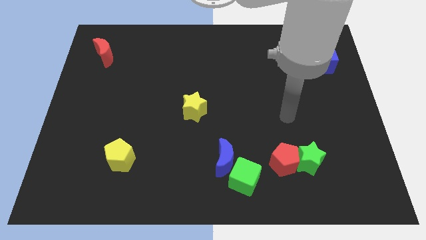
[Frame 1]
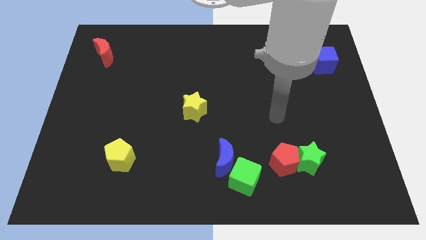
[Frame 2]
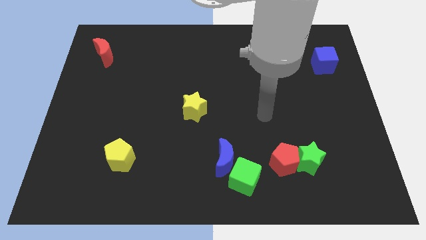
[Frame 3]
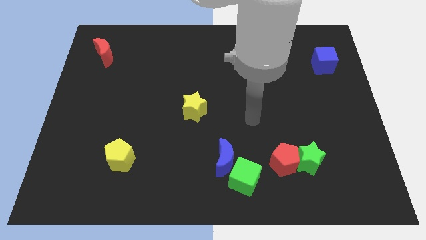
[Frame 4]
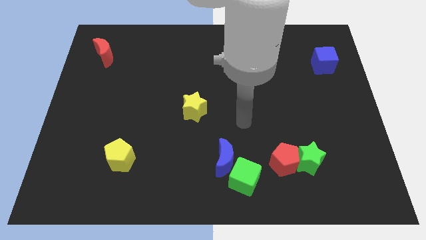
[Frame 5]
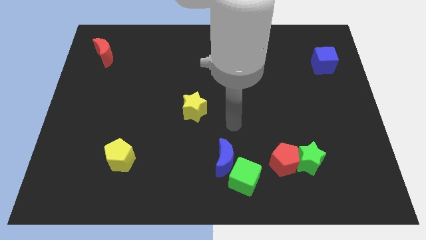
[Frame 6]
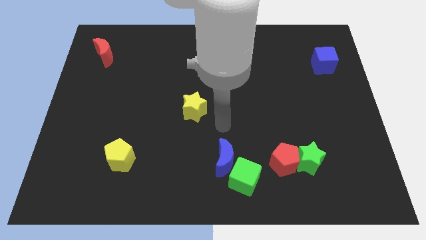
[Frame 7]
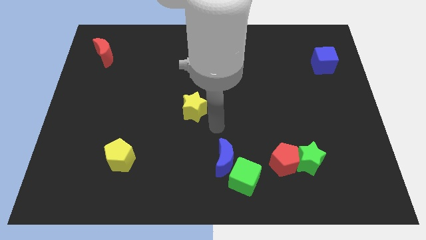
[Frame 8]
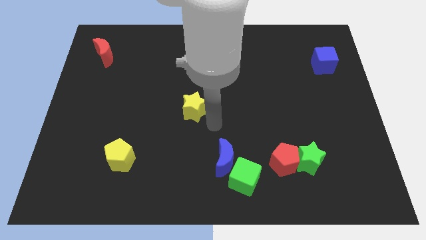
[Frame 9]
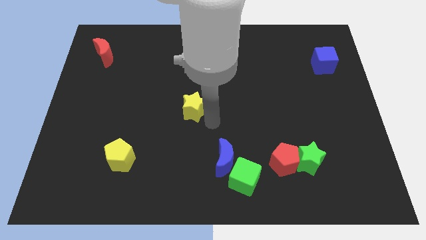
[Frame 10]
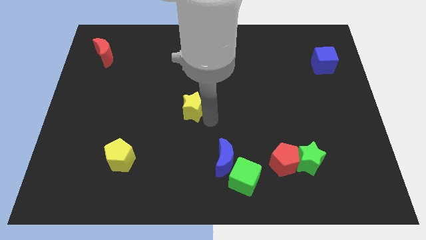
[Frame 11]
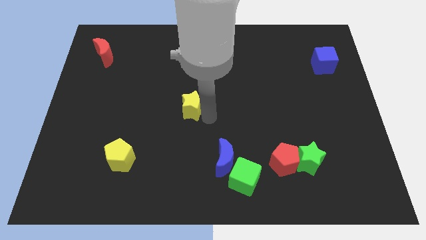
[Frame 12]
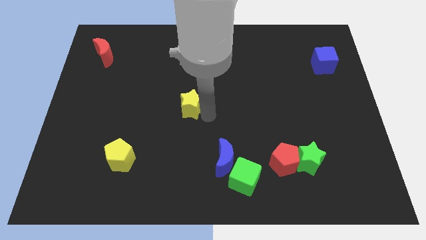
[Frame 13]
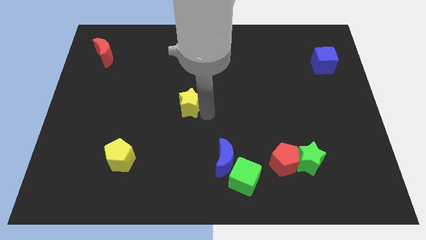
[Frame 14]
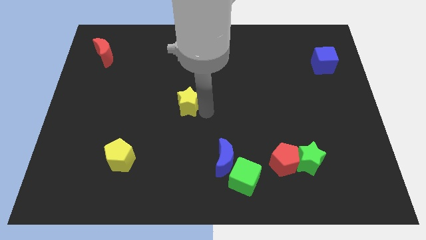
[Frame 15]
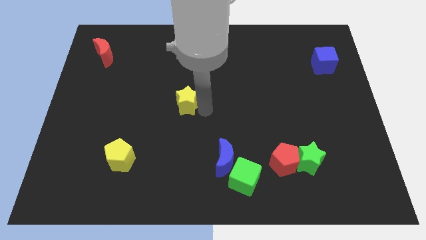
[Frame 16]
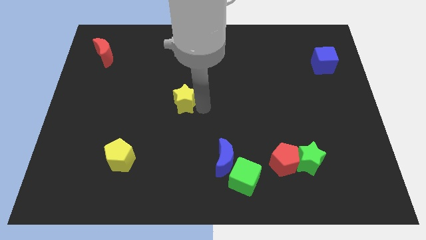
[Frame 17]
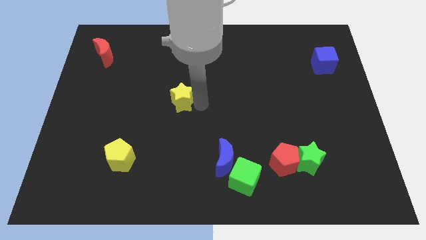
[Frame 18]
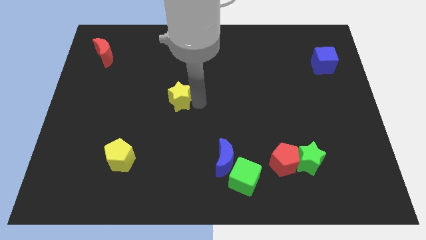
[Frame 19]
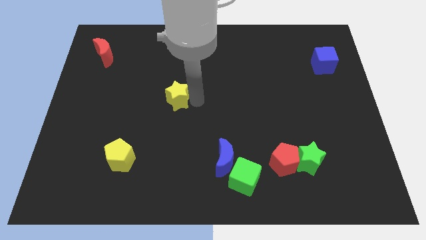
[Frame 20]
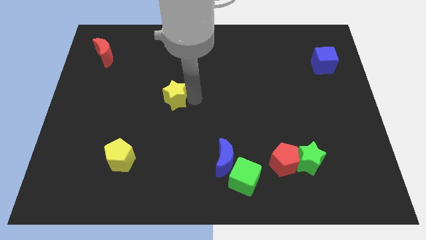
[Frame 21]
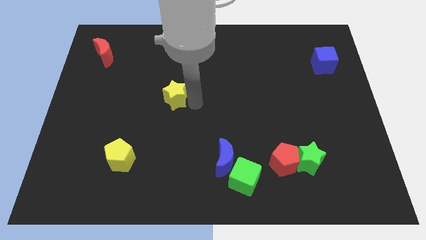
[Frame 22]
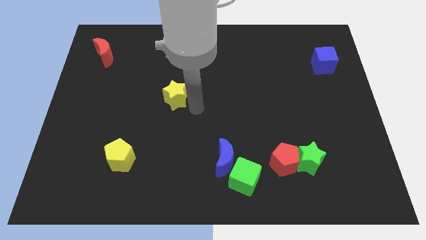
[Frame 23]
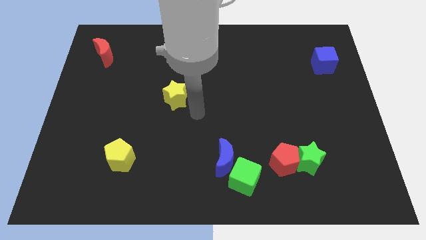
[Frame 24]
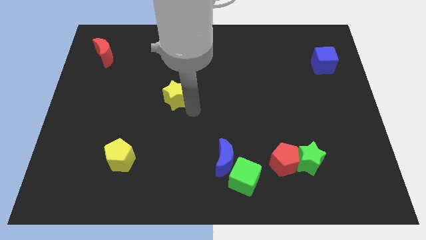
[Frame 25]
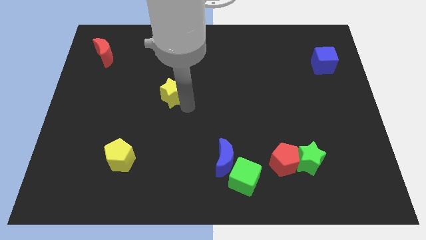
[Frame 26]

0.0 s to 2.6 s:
slide the yellow star up and then to the left a little bit

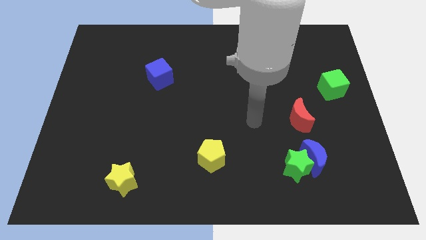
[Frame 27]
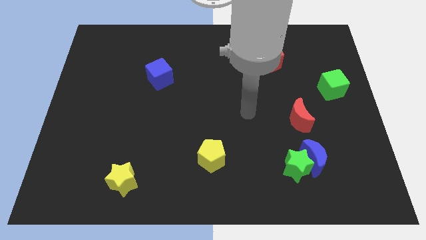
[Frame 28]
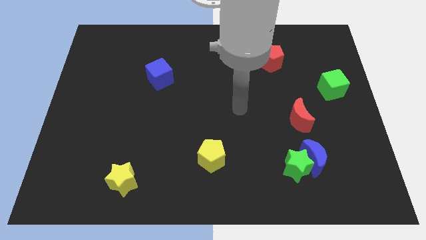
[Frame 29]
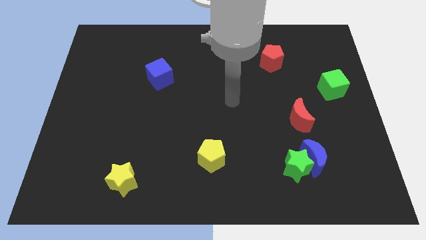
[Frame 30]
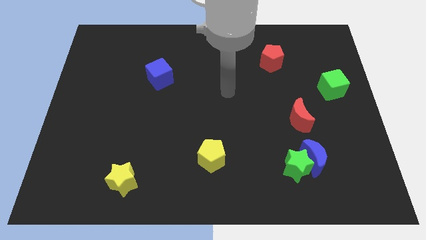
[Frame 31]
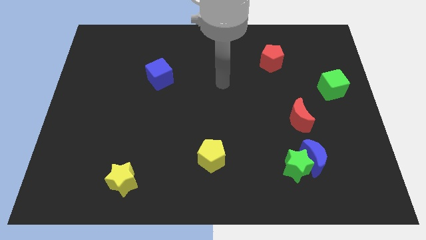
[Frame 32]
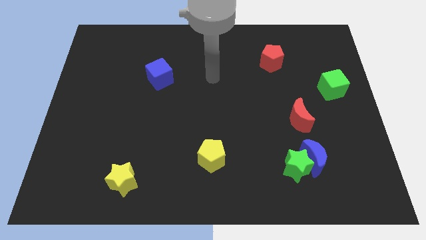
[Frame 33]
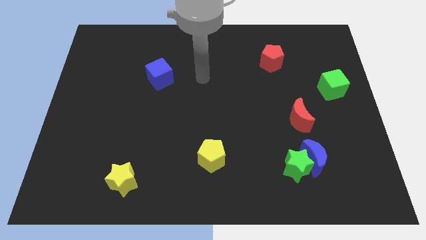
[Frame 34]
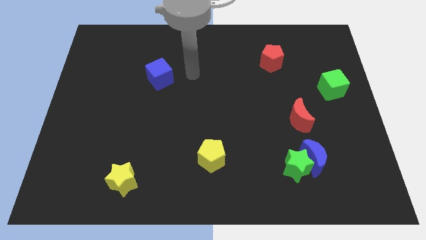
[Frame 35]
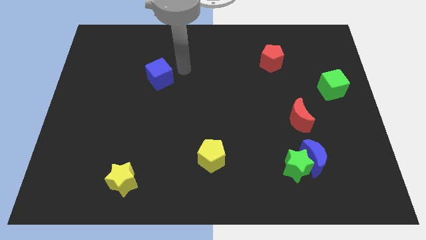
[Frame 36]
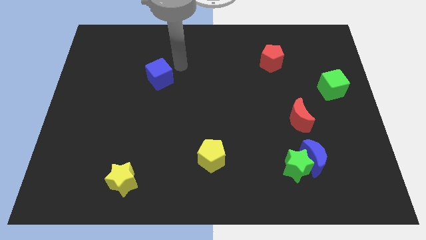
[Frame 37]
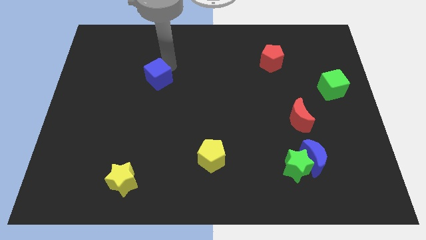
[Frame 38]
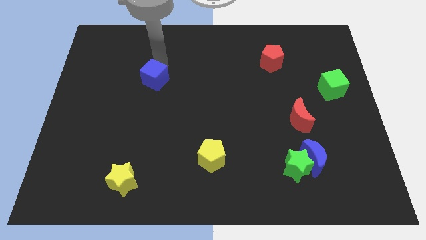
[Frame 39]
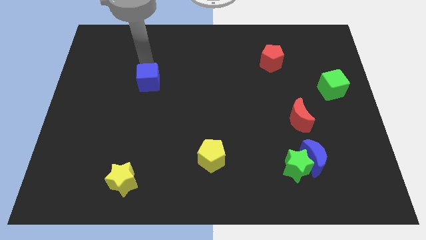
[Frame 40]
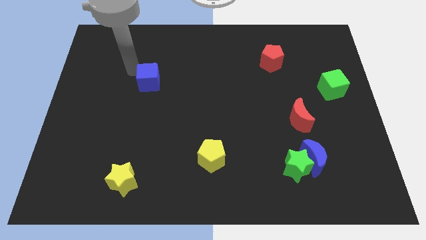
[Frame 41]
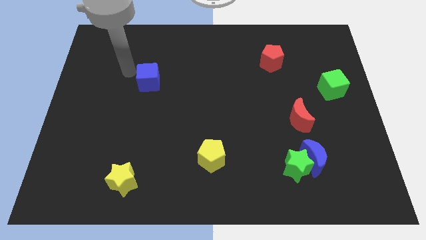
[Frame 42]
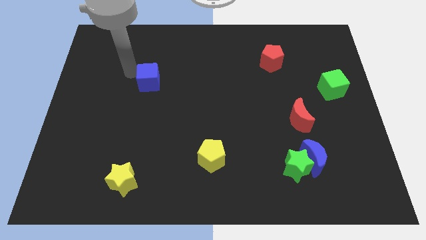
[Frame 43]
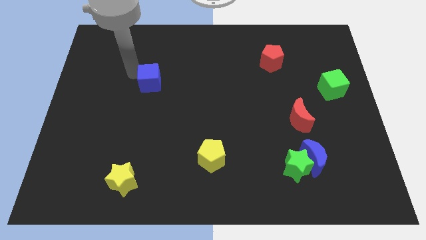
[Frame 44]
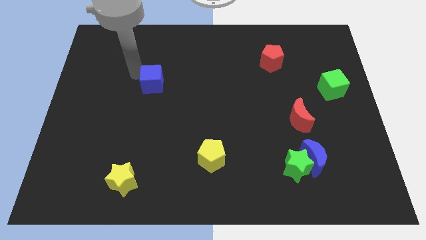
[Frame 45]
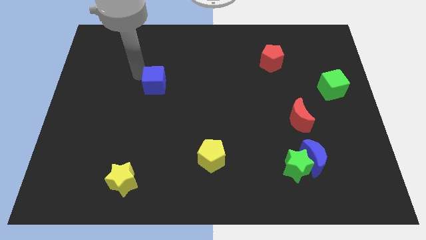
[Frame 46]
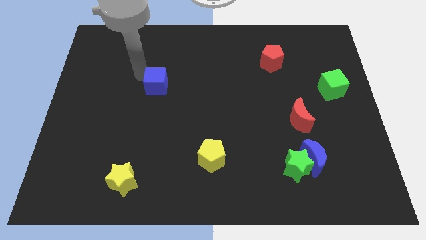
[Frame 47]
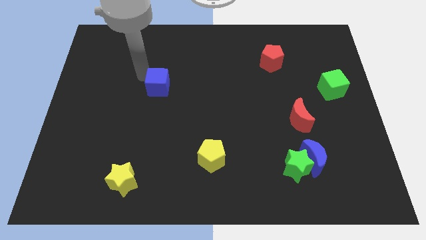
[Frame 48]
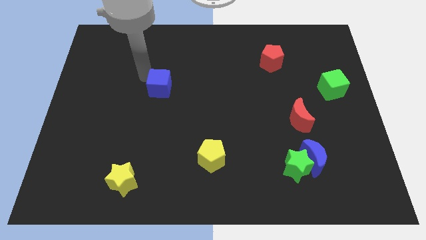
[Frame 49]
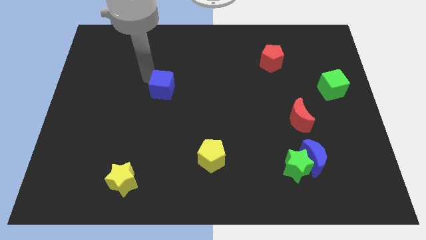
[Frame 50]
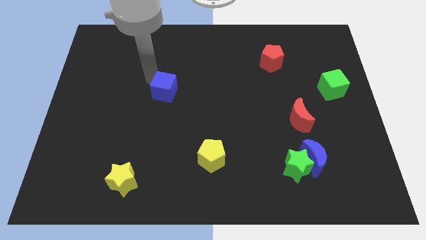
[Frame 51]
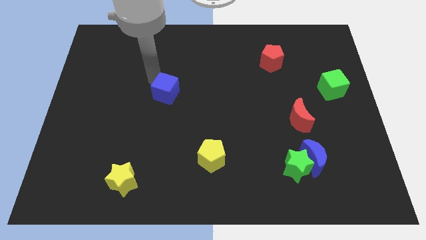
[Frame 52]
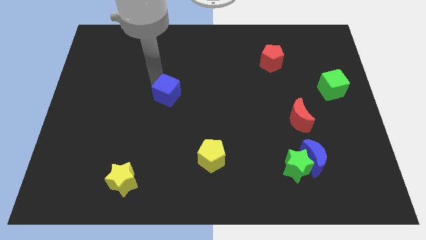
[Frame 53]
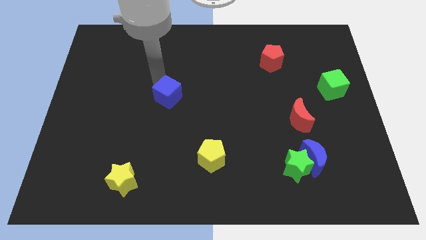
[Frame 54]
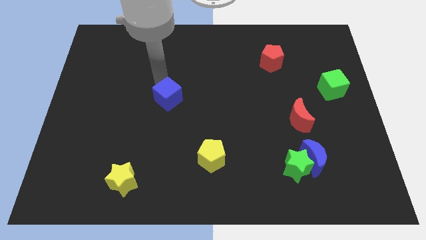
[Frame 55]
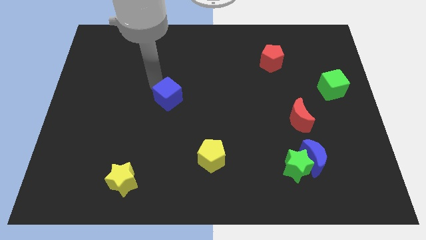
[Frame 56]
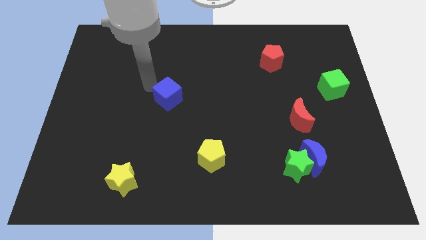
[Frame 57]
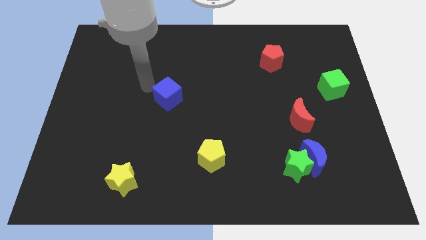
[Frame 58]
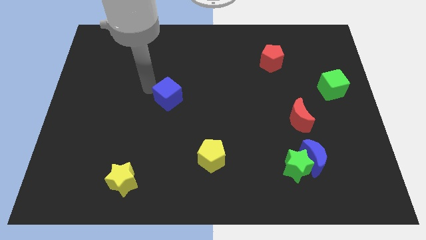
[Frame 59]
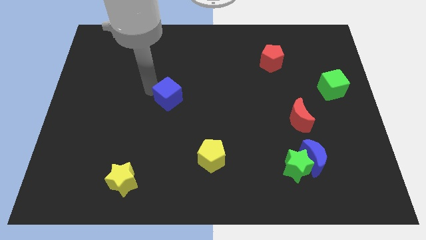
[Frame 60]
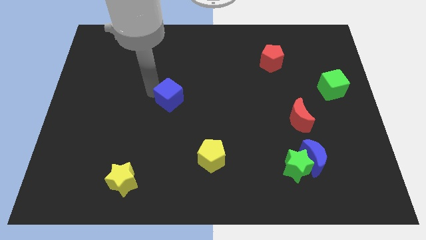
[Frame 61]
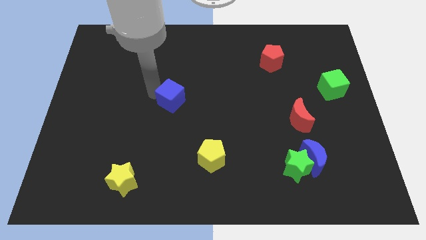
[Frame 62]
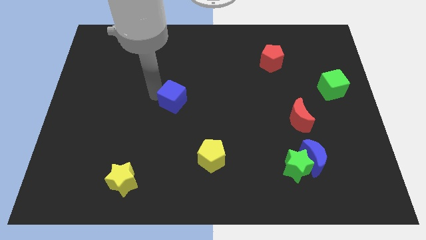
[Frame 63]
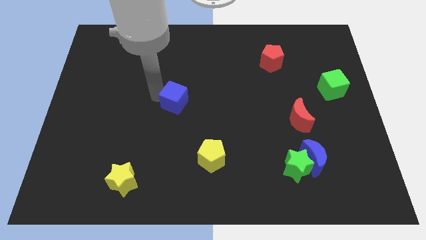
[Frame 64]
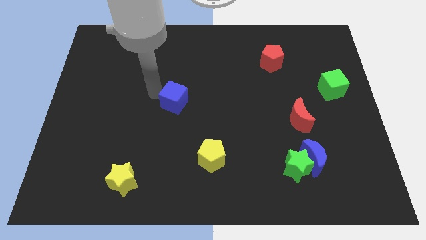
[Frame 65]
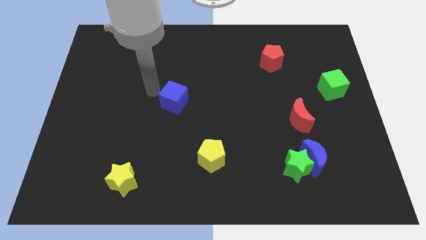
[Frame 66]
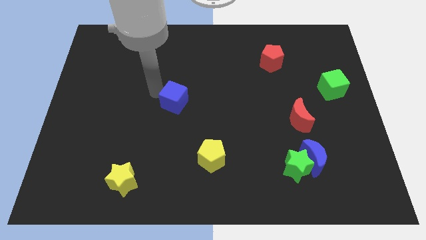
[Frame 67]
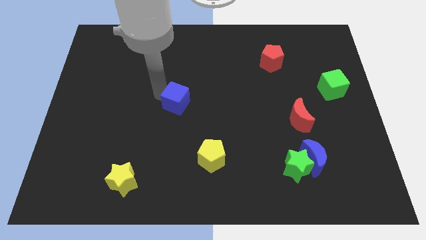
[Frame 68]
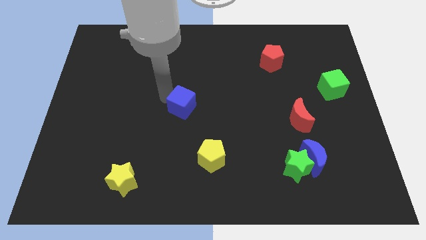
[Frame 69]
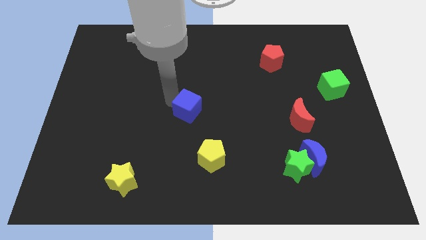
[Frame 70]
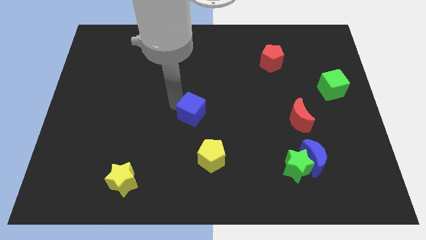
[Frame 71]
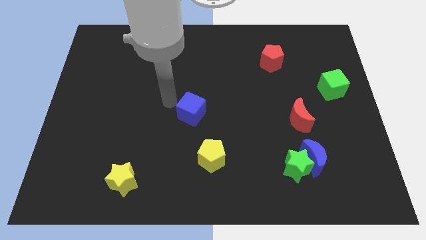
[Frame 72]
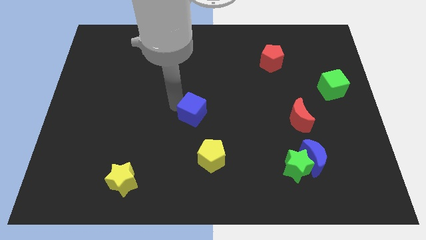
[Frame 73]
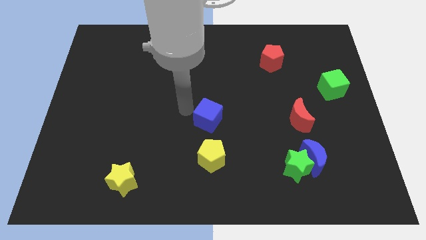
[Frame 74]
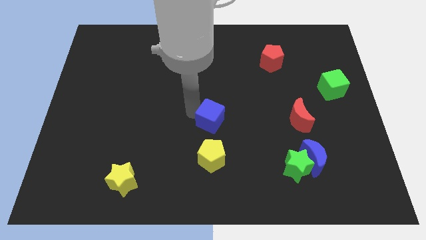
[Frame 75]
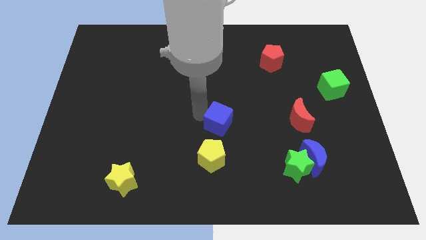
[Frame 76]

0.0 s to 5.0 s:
slide the blue cube downwards and right diagonally
